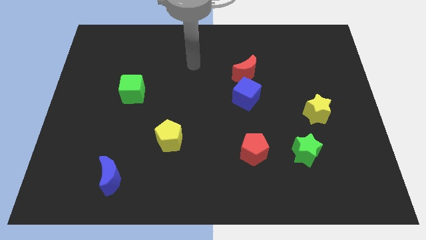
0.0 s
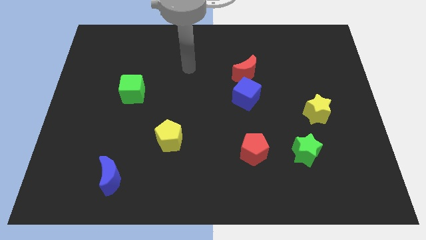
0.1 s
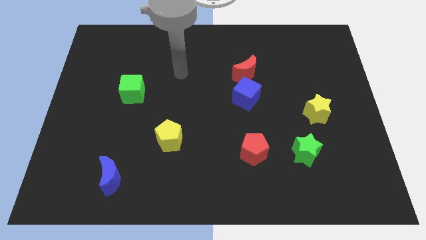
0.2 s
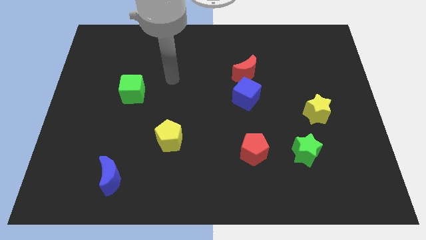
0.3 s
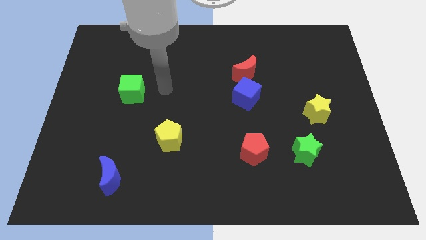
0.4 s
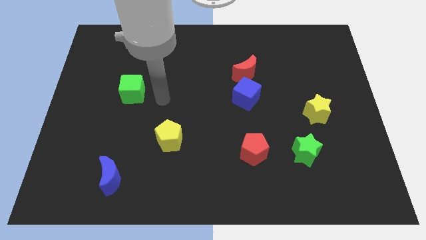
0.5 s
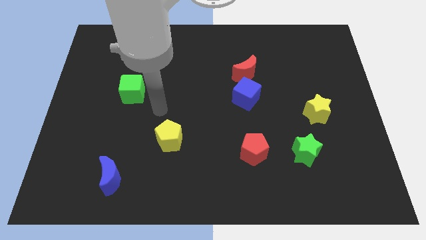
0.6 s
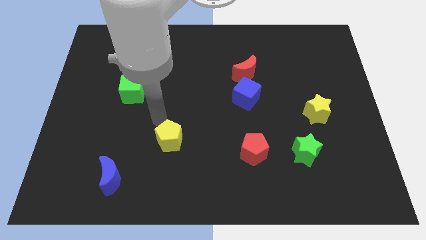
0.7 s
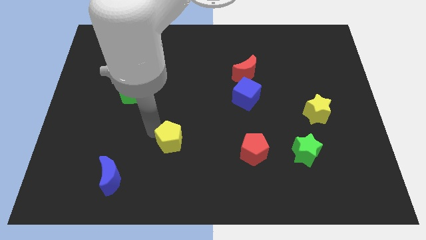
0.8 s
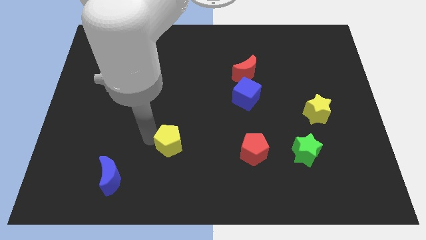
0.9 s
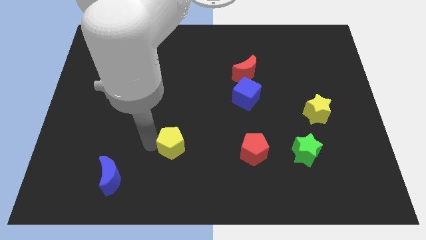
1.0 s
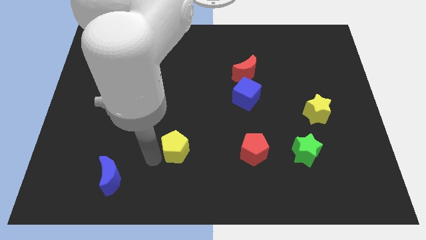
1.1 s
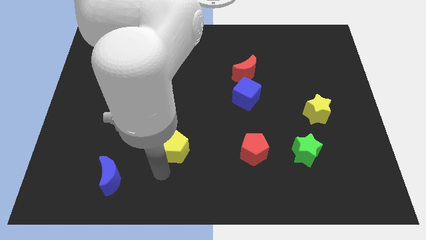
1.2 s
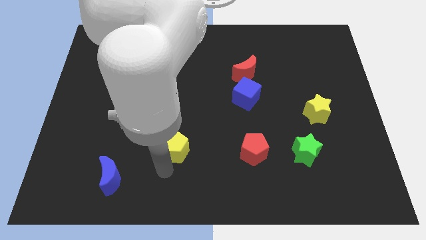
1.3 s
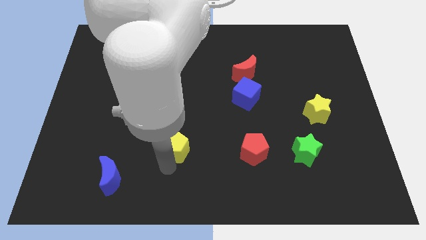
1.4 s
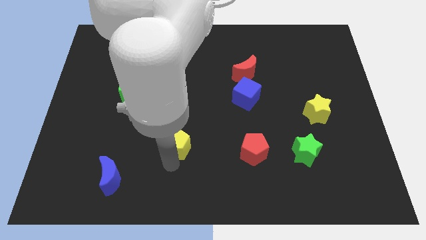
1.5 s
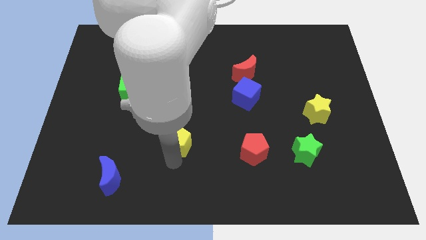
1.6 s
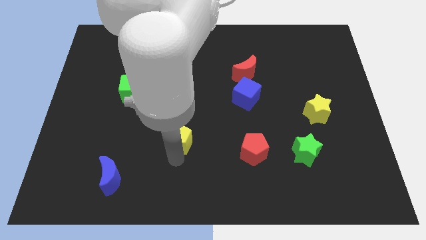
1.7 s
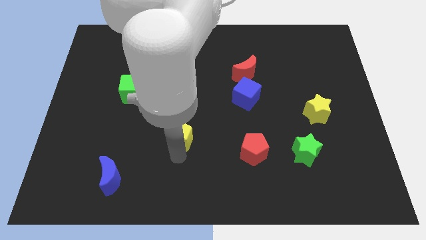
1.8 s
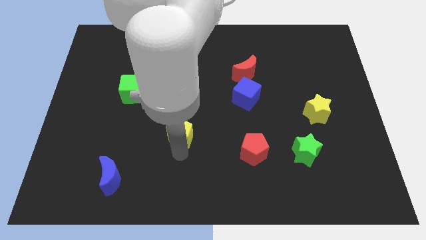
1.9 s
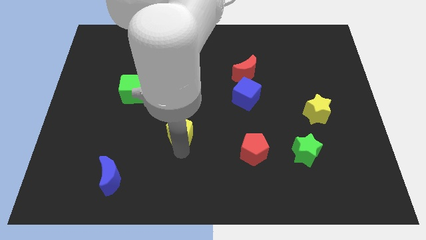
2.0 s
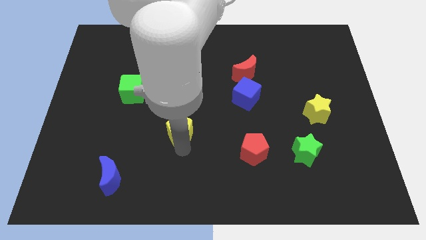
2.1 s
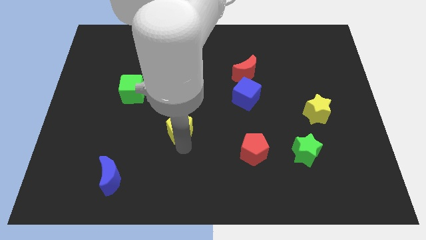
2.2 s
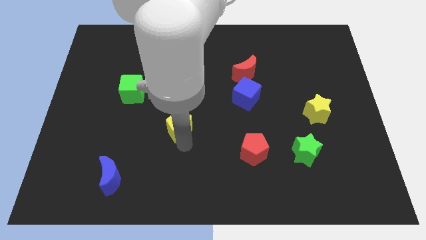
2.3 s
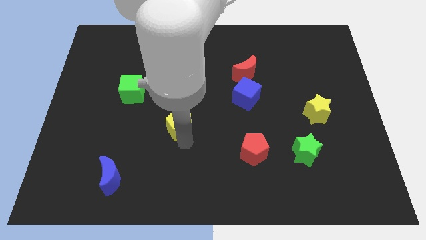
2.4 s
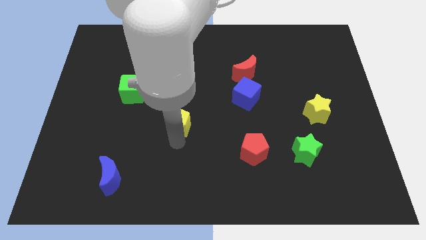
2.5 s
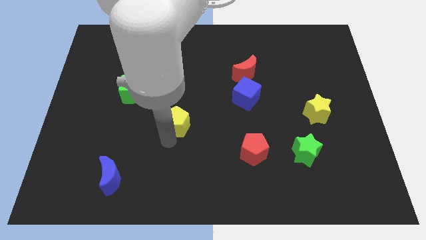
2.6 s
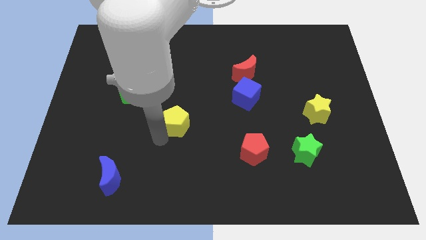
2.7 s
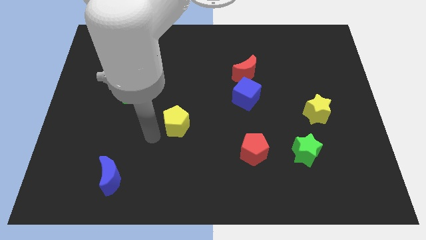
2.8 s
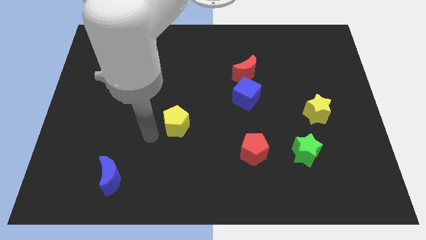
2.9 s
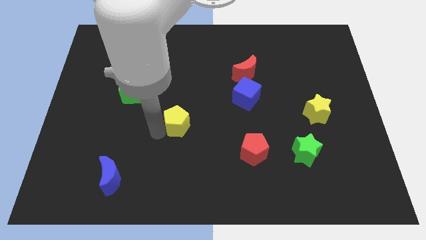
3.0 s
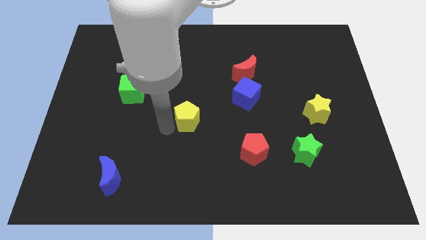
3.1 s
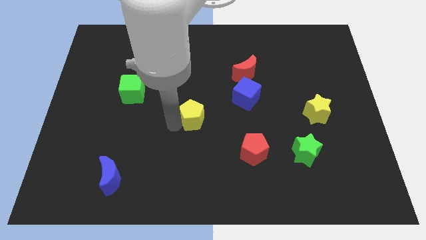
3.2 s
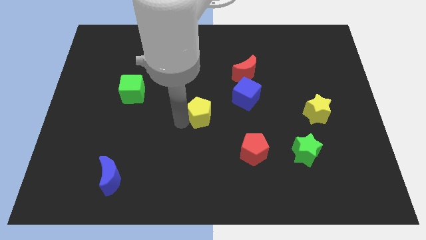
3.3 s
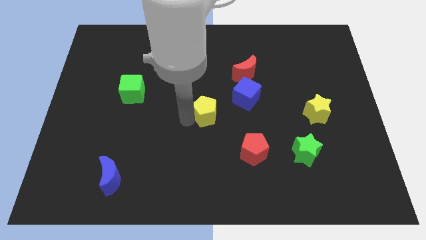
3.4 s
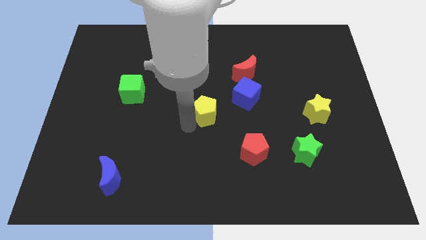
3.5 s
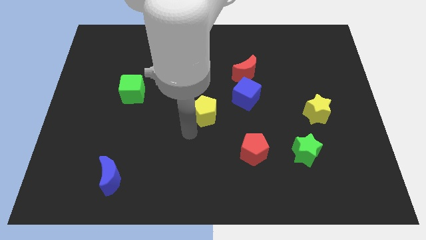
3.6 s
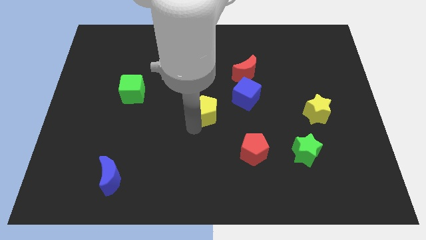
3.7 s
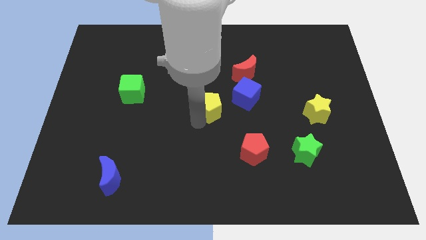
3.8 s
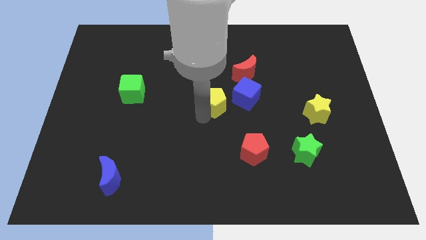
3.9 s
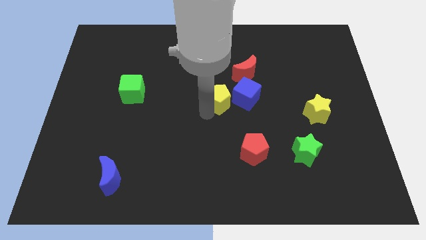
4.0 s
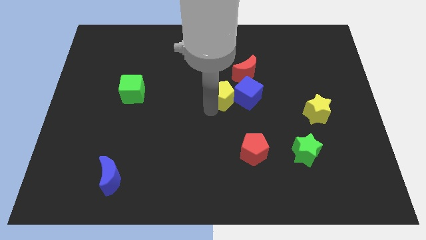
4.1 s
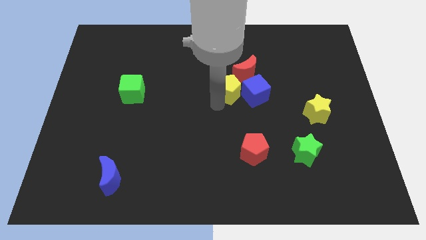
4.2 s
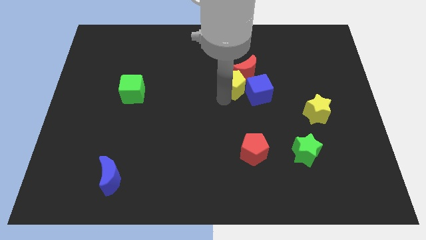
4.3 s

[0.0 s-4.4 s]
slide the yellow pentagon upwards and then to the right

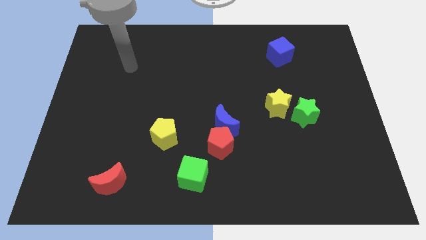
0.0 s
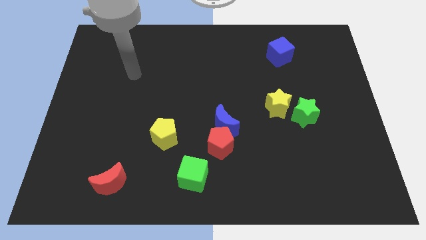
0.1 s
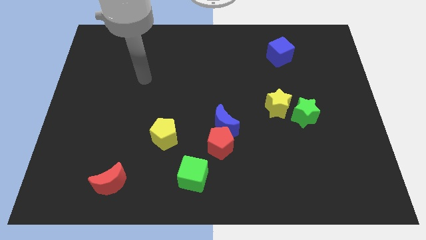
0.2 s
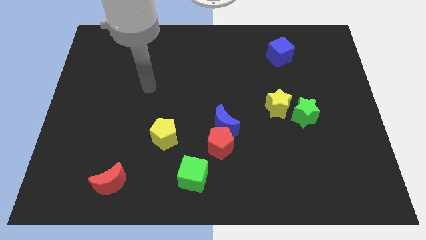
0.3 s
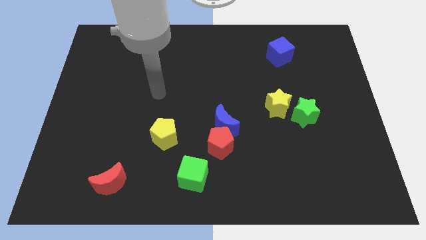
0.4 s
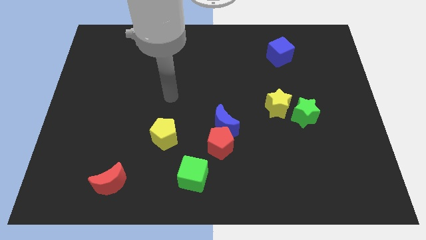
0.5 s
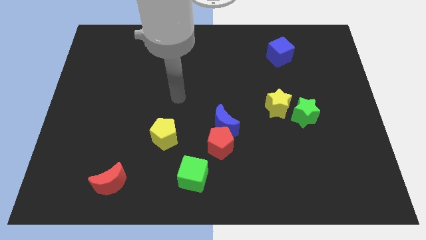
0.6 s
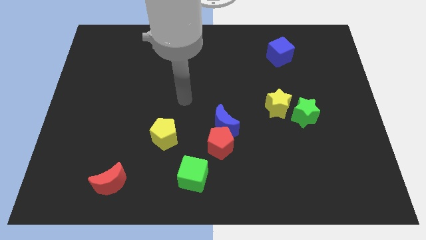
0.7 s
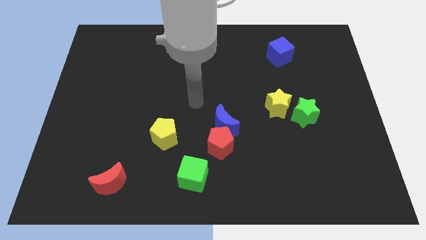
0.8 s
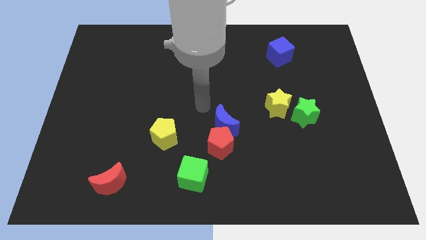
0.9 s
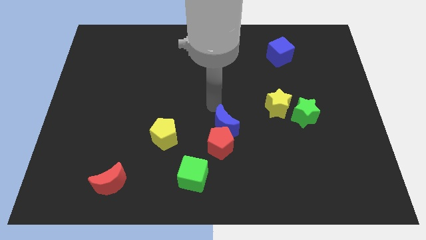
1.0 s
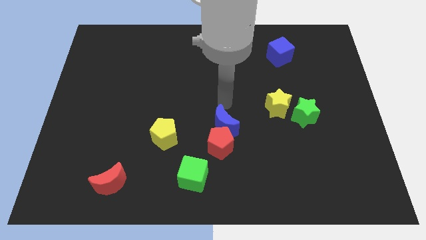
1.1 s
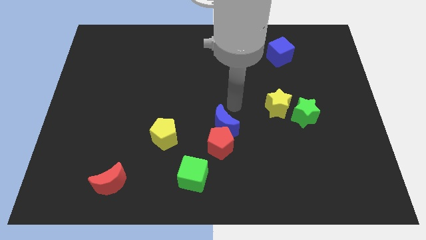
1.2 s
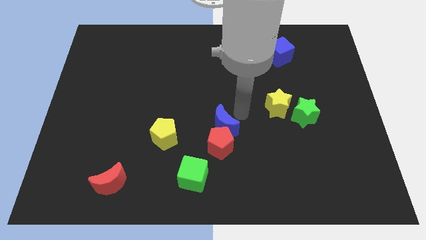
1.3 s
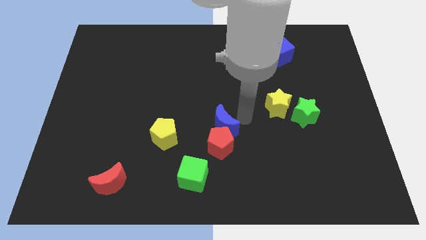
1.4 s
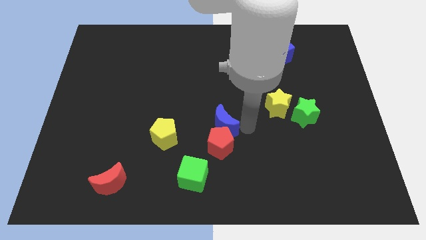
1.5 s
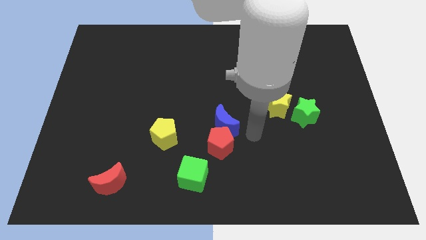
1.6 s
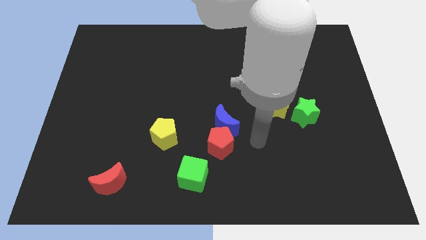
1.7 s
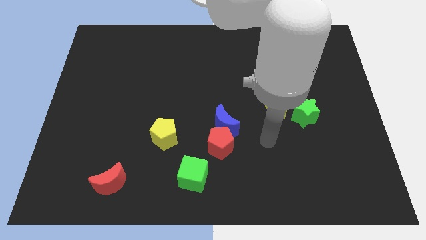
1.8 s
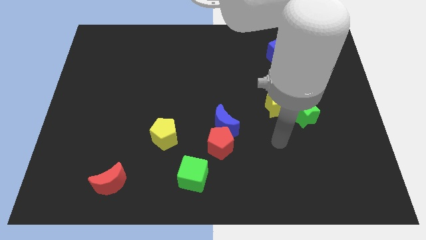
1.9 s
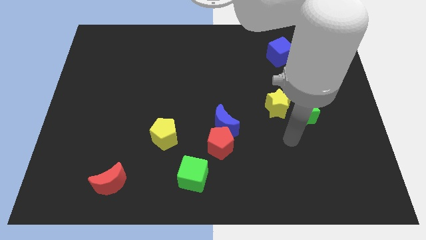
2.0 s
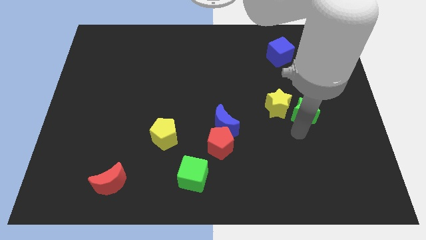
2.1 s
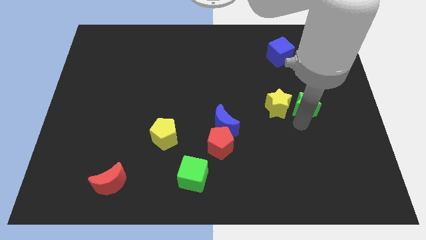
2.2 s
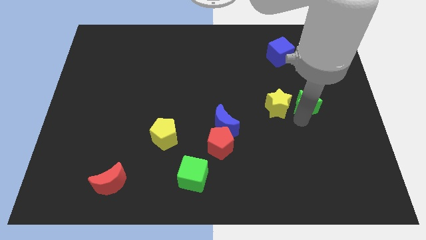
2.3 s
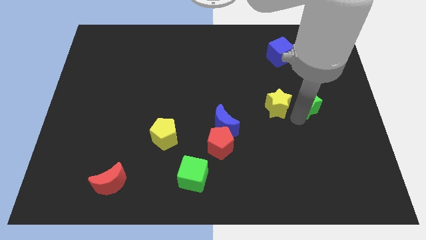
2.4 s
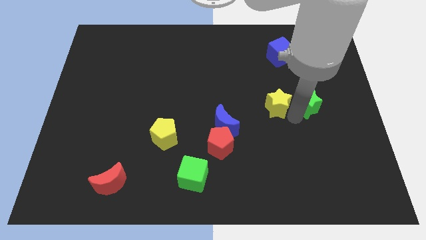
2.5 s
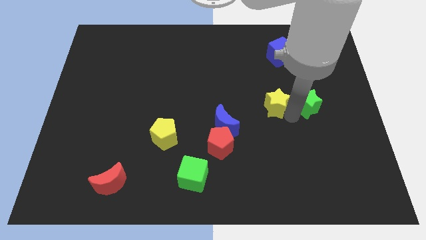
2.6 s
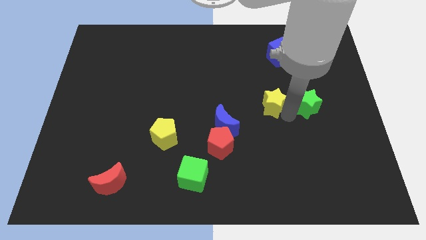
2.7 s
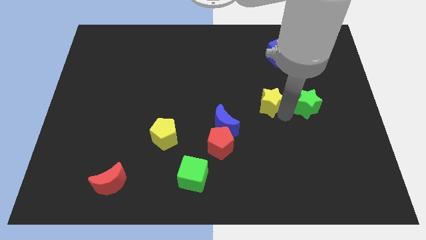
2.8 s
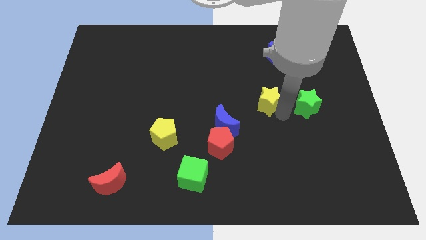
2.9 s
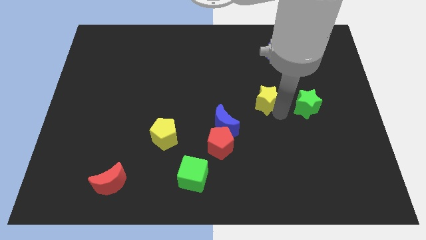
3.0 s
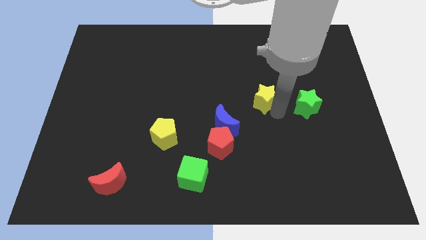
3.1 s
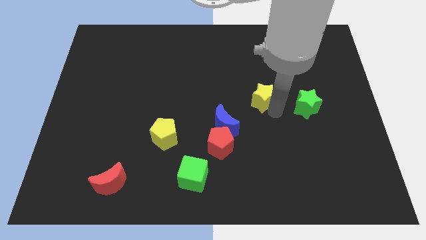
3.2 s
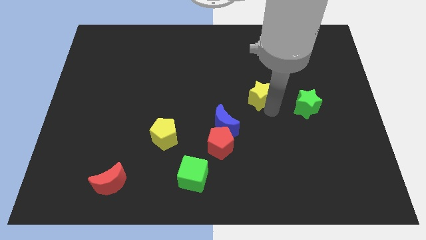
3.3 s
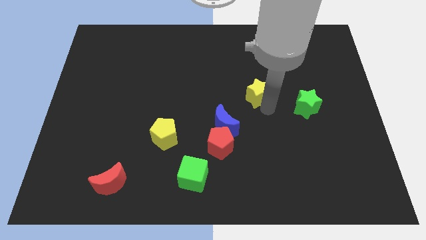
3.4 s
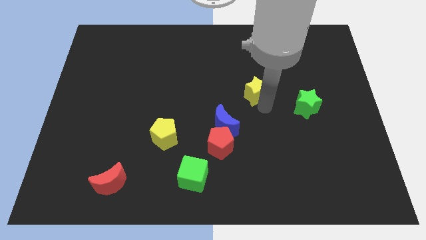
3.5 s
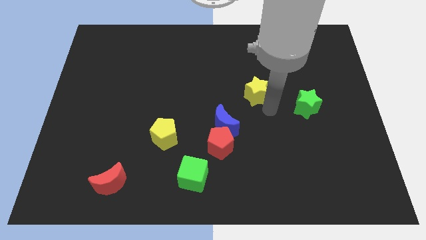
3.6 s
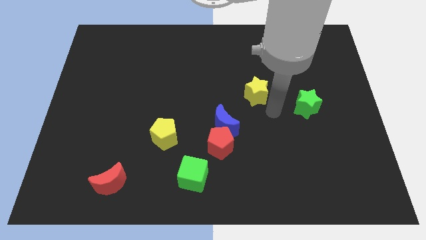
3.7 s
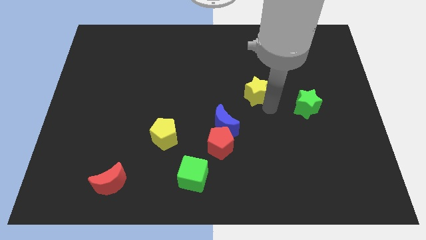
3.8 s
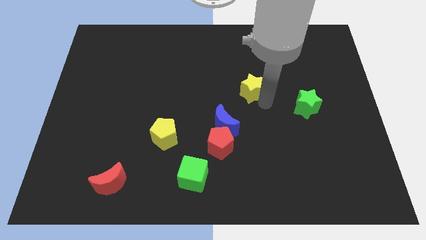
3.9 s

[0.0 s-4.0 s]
move the yellow star a little diagonally upwards and left

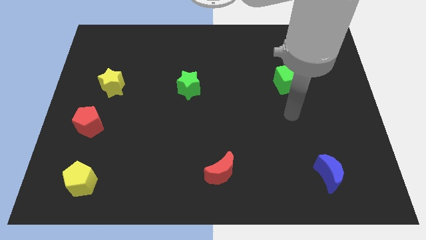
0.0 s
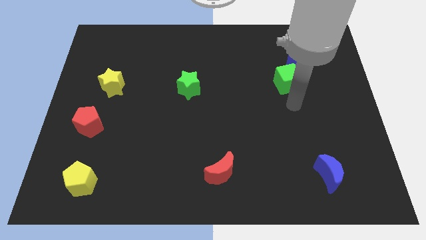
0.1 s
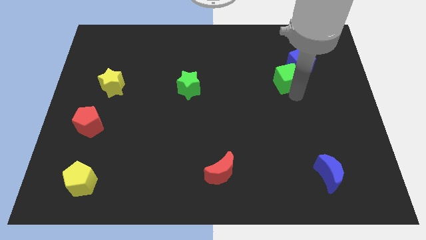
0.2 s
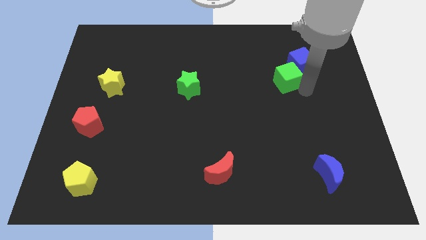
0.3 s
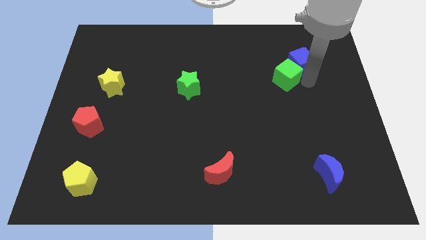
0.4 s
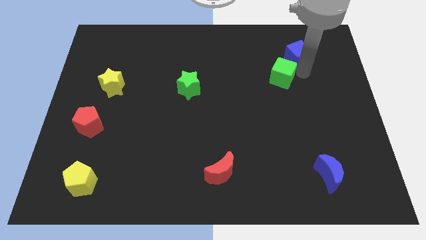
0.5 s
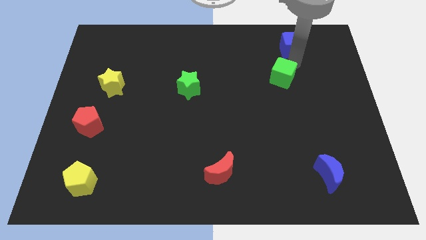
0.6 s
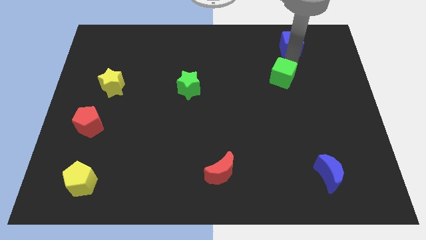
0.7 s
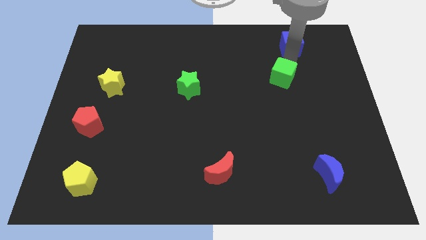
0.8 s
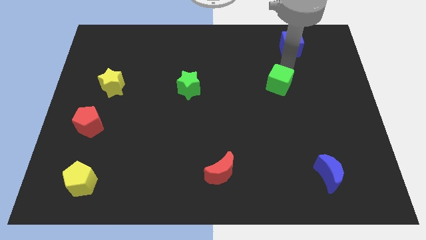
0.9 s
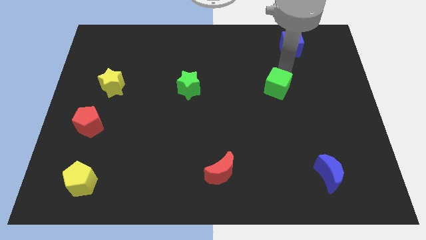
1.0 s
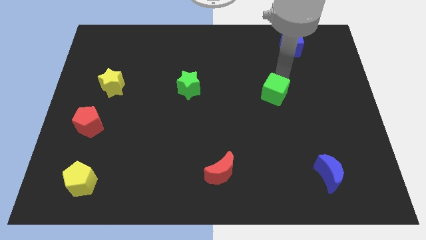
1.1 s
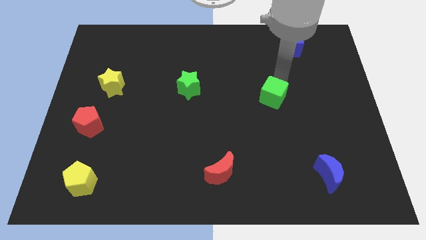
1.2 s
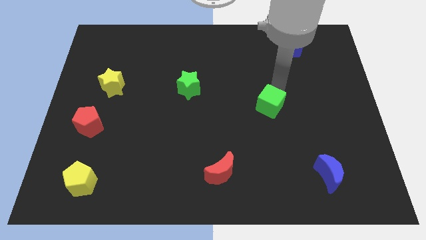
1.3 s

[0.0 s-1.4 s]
push the green cube a bit down and then to the left
